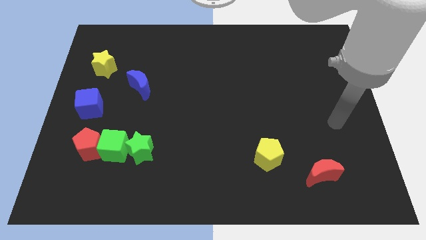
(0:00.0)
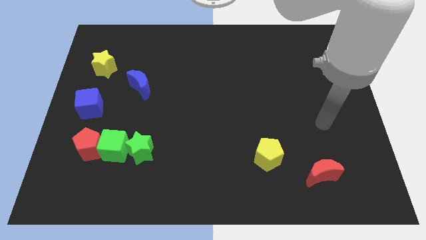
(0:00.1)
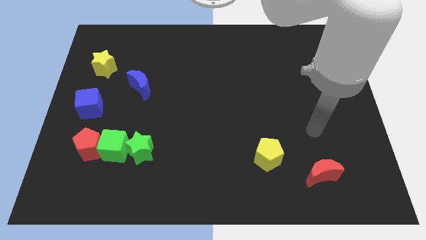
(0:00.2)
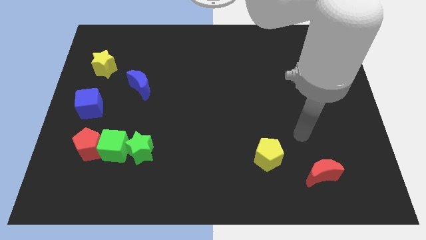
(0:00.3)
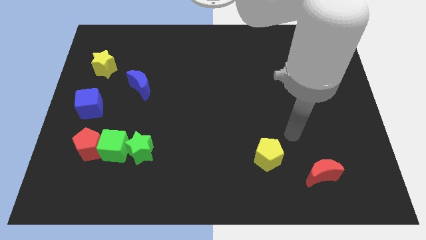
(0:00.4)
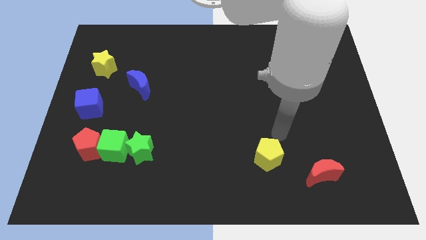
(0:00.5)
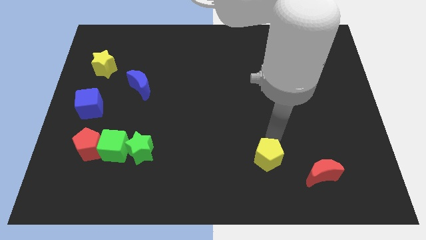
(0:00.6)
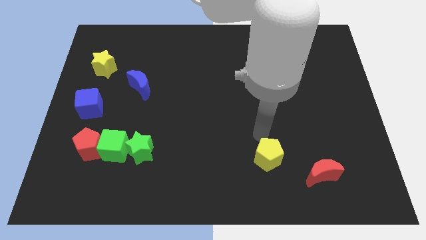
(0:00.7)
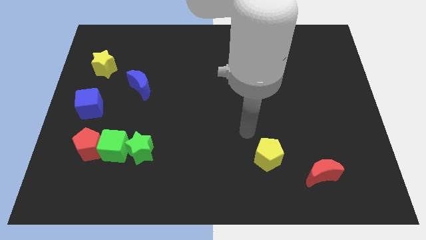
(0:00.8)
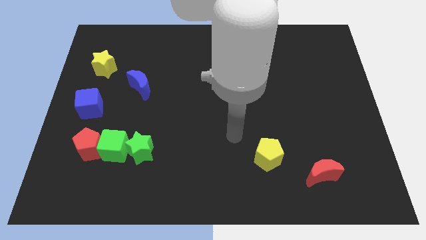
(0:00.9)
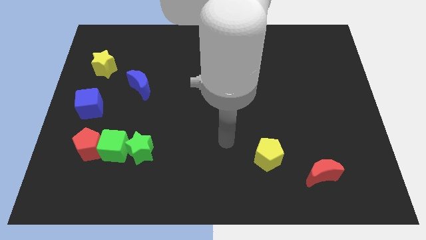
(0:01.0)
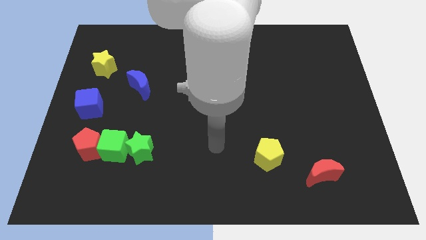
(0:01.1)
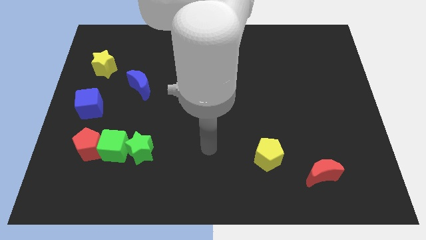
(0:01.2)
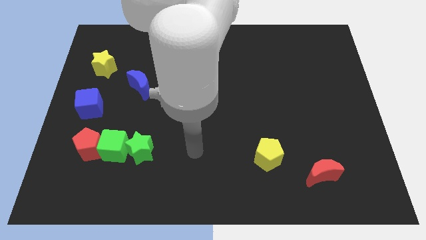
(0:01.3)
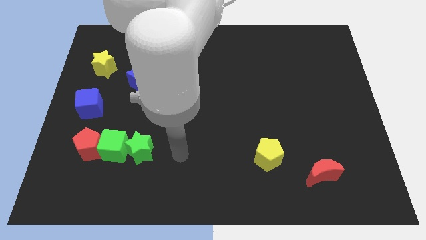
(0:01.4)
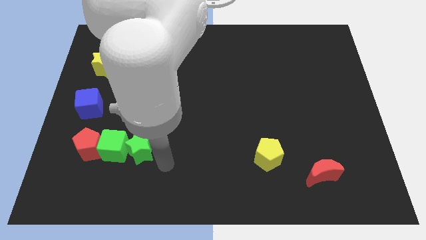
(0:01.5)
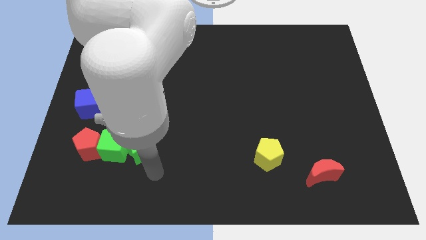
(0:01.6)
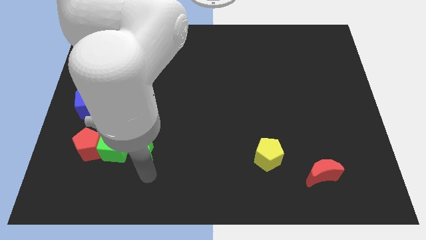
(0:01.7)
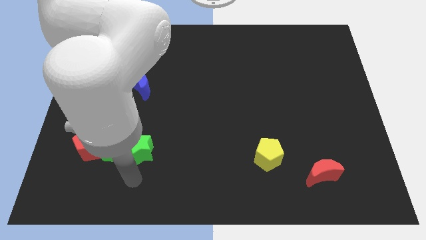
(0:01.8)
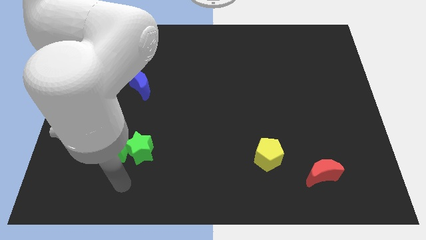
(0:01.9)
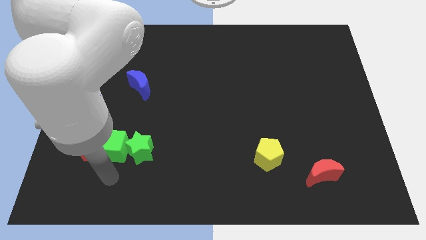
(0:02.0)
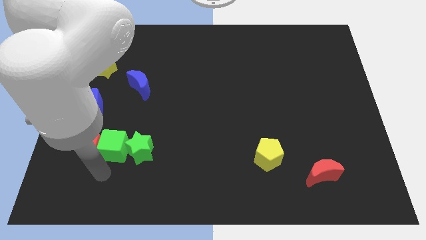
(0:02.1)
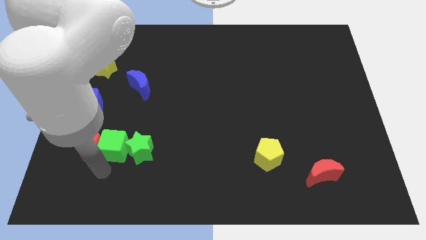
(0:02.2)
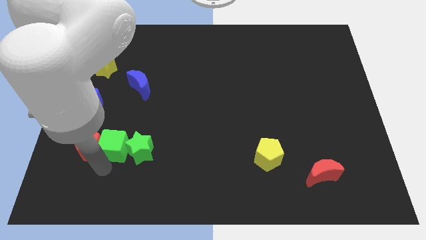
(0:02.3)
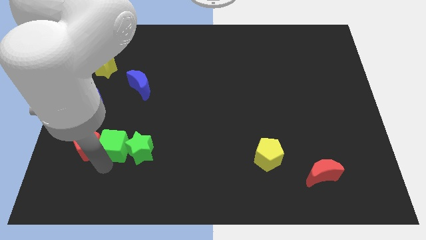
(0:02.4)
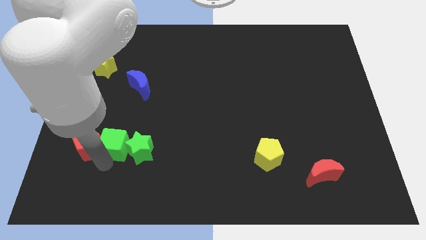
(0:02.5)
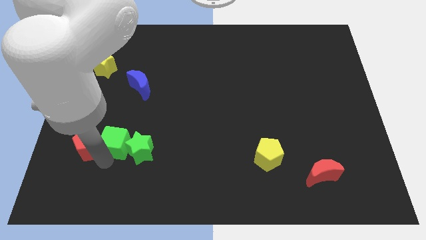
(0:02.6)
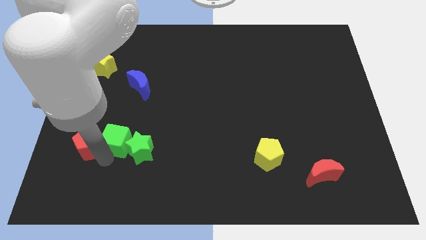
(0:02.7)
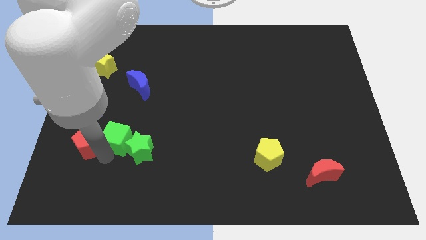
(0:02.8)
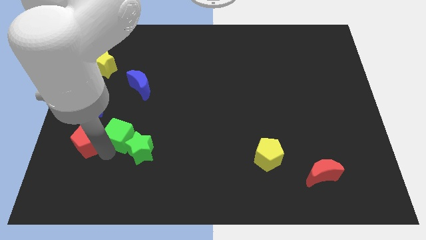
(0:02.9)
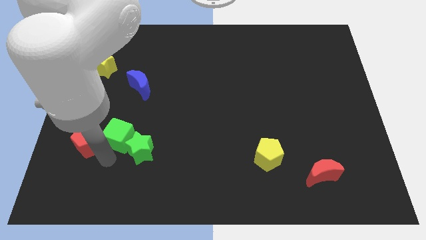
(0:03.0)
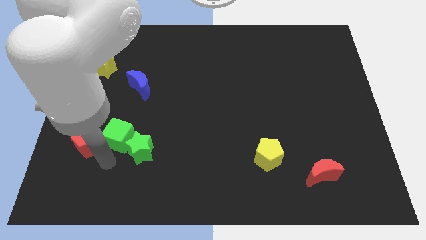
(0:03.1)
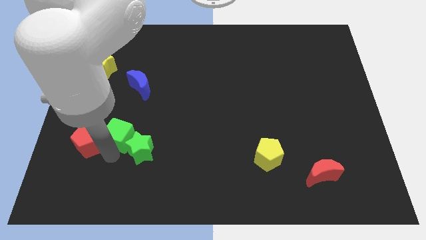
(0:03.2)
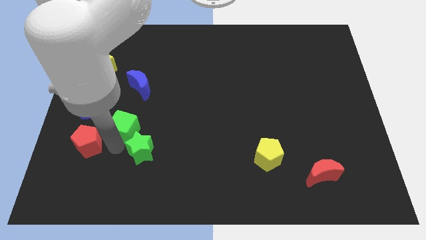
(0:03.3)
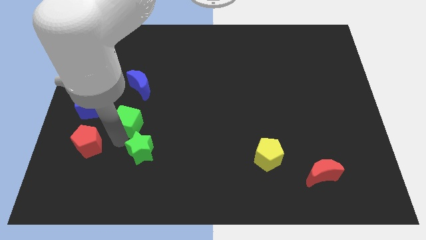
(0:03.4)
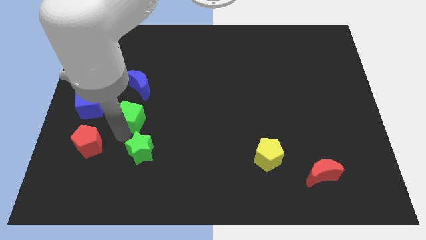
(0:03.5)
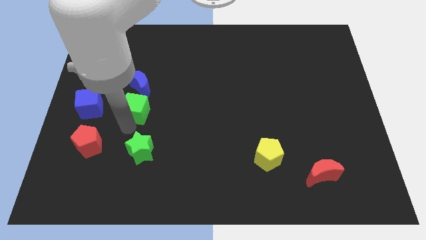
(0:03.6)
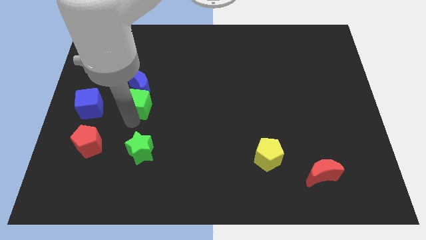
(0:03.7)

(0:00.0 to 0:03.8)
push the green cube towards the blue moon

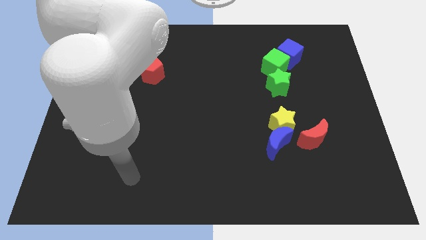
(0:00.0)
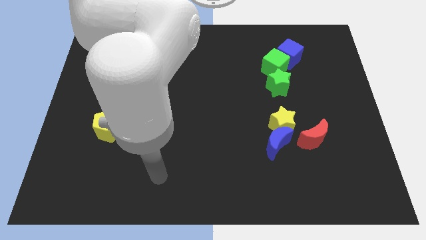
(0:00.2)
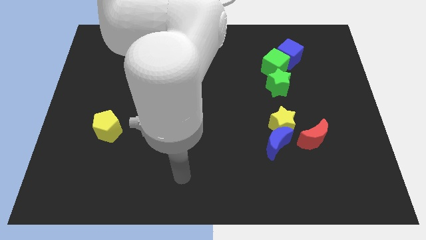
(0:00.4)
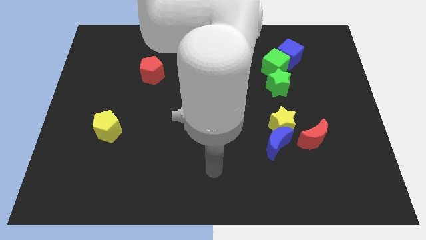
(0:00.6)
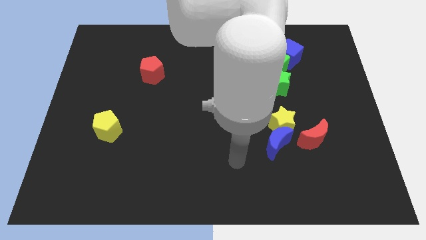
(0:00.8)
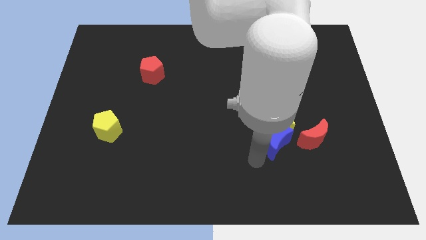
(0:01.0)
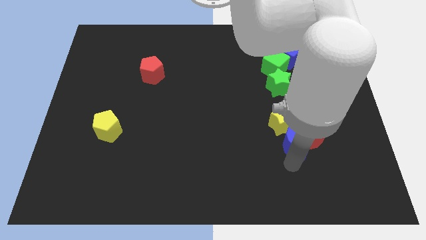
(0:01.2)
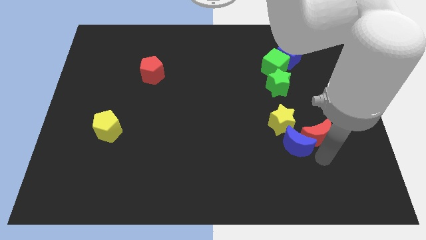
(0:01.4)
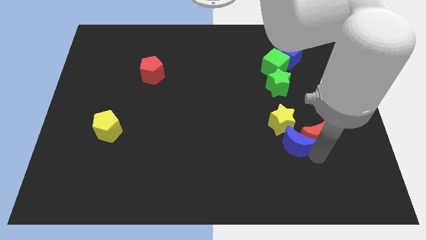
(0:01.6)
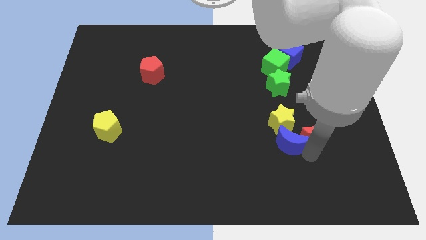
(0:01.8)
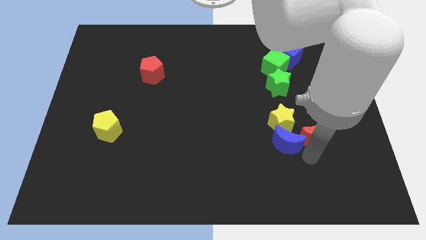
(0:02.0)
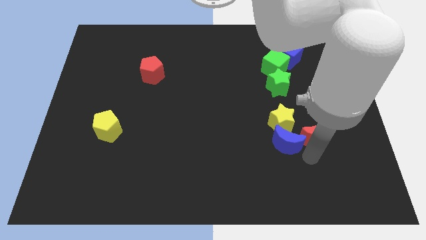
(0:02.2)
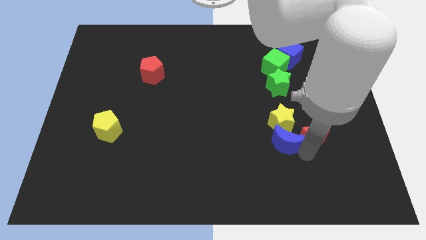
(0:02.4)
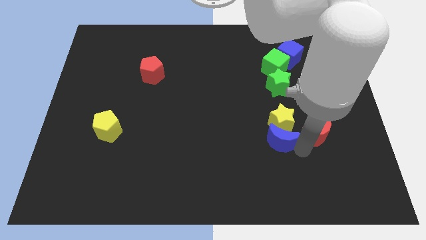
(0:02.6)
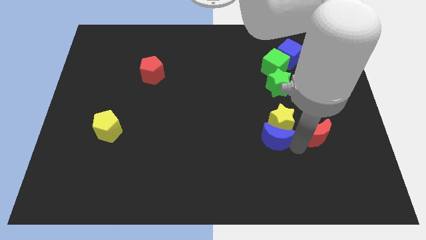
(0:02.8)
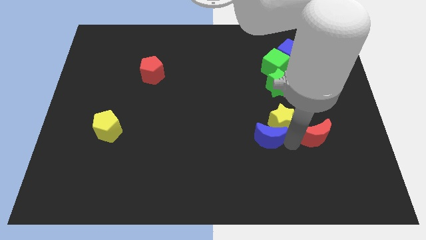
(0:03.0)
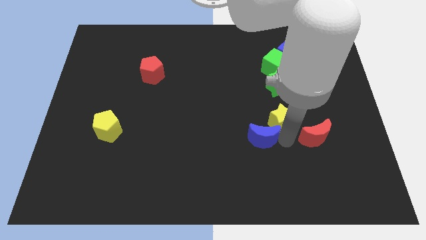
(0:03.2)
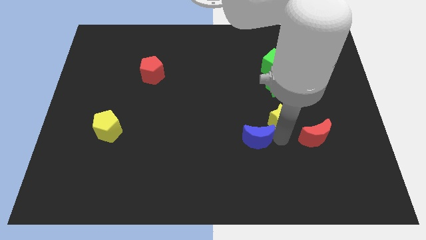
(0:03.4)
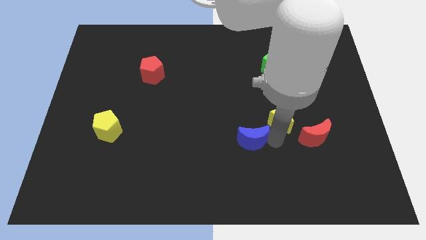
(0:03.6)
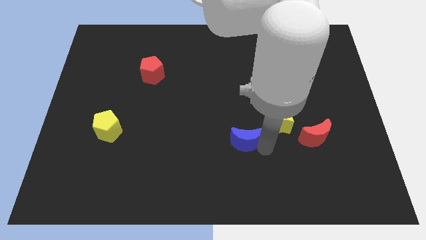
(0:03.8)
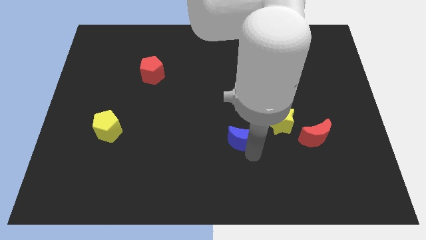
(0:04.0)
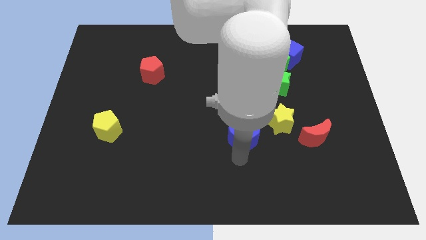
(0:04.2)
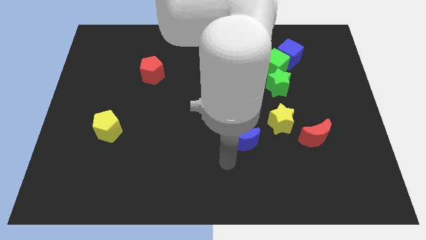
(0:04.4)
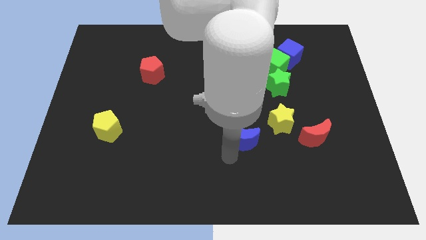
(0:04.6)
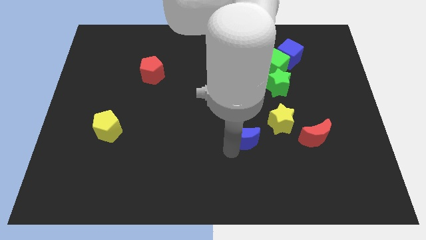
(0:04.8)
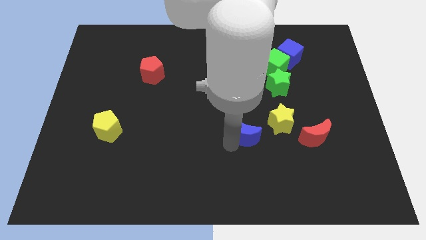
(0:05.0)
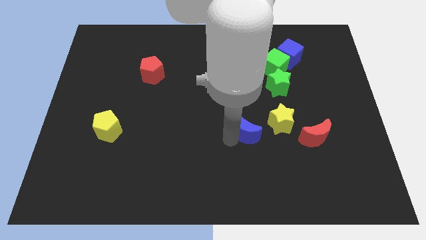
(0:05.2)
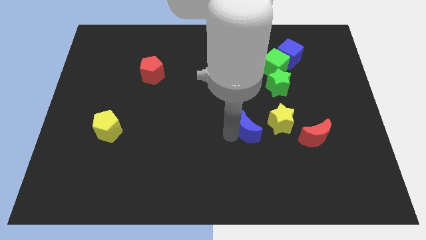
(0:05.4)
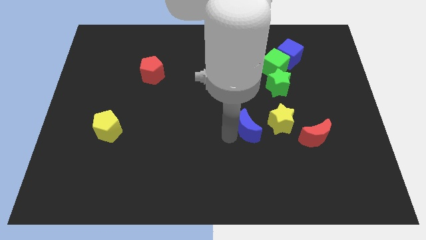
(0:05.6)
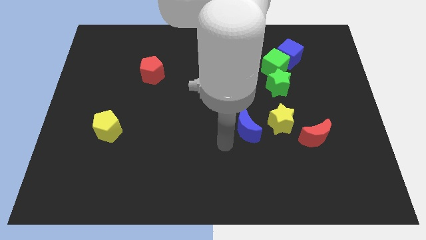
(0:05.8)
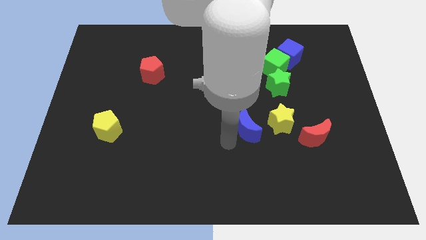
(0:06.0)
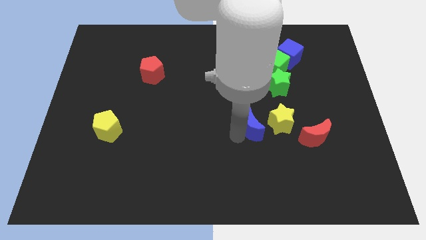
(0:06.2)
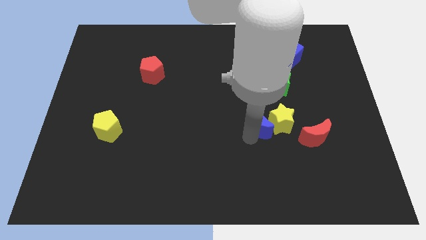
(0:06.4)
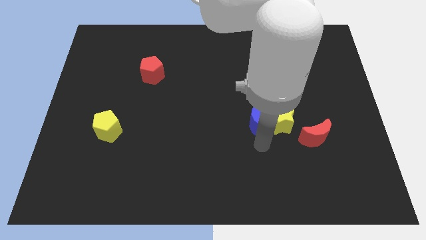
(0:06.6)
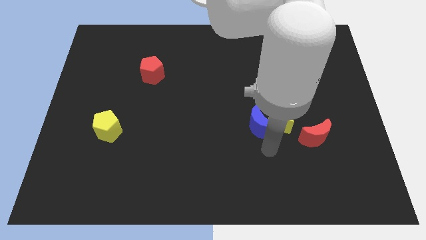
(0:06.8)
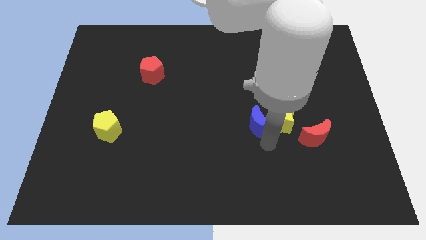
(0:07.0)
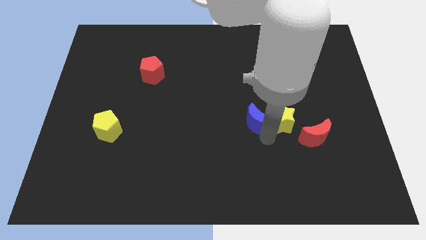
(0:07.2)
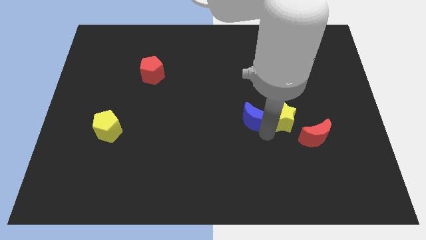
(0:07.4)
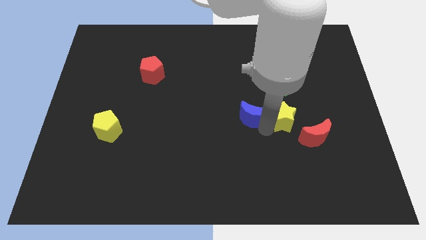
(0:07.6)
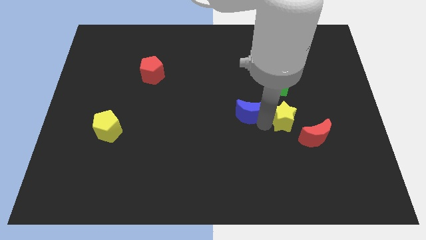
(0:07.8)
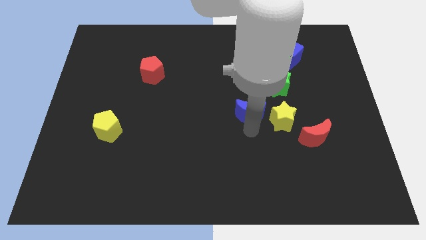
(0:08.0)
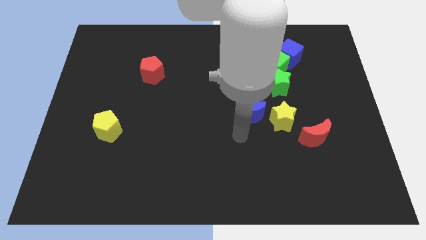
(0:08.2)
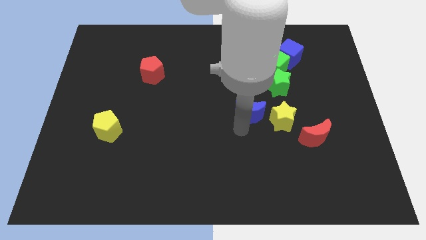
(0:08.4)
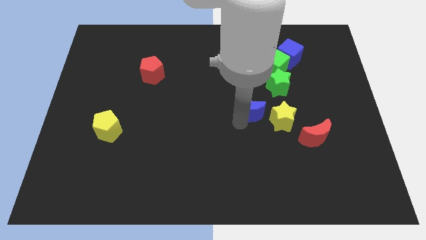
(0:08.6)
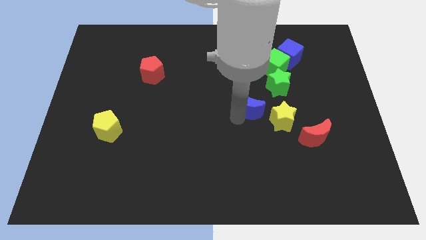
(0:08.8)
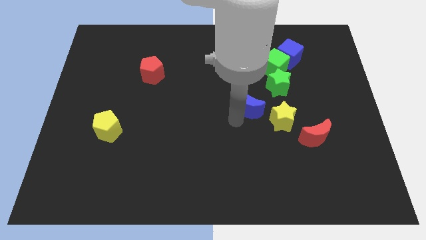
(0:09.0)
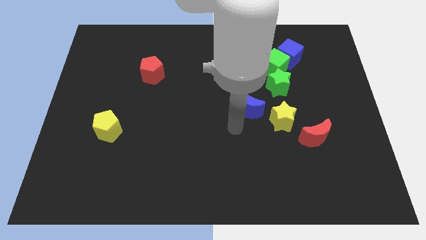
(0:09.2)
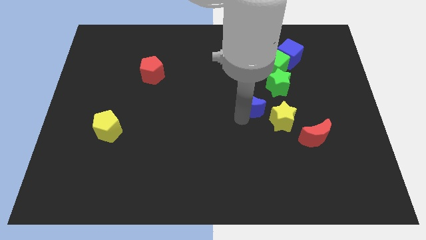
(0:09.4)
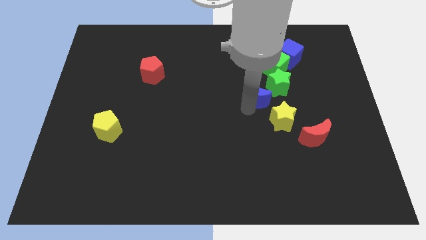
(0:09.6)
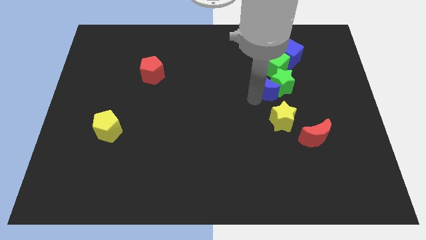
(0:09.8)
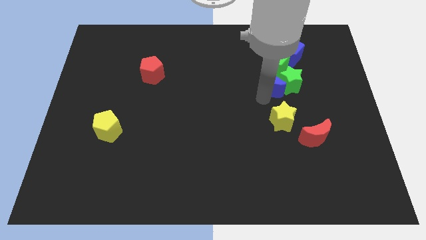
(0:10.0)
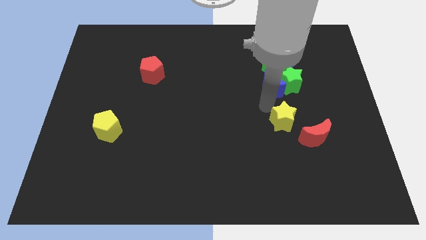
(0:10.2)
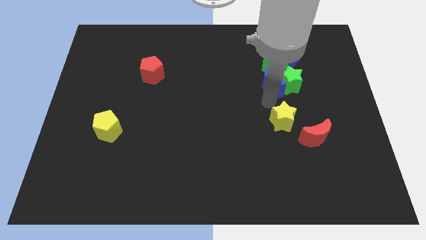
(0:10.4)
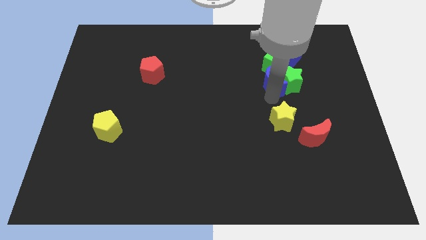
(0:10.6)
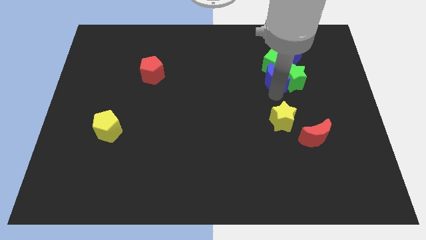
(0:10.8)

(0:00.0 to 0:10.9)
move the blue moon close to the green cube
